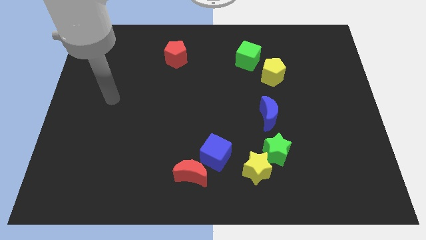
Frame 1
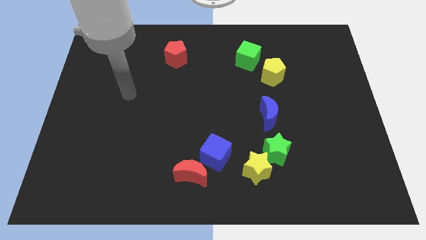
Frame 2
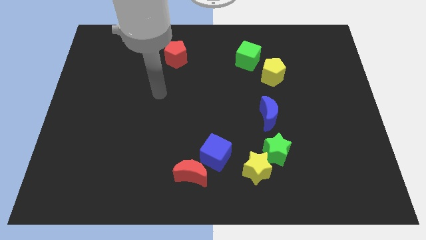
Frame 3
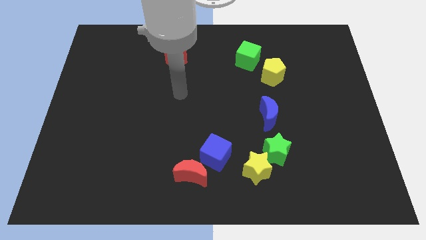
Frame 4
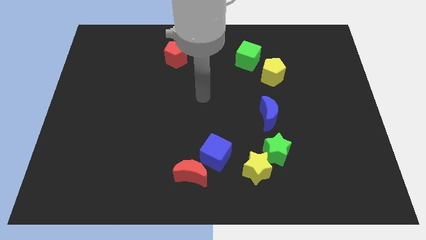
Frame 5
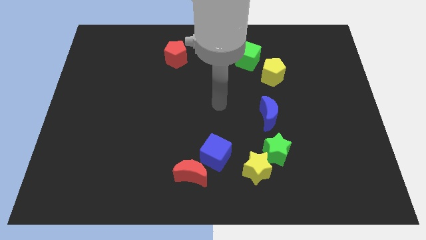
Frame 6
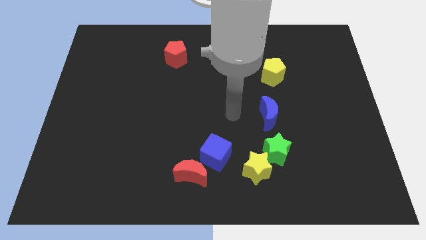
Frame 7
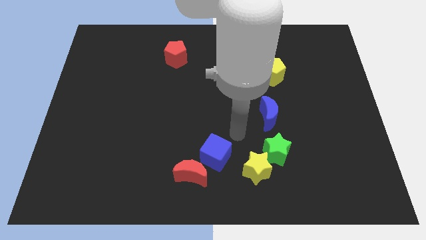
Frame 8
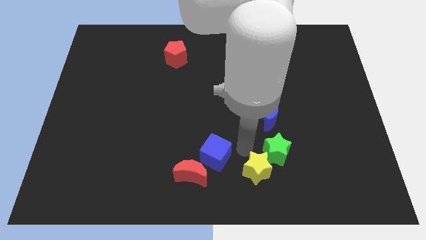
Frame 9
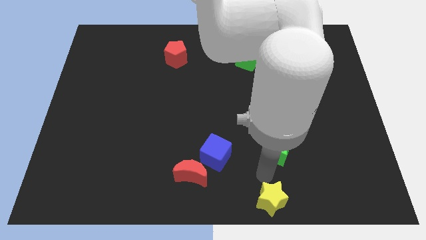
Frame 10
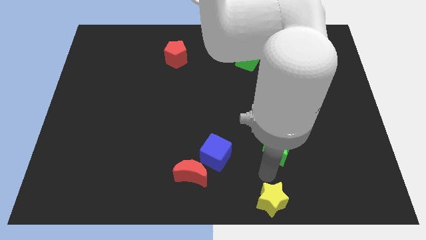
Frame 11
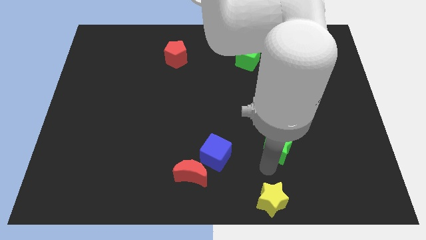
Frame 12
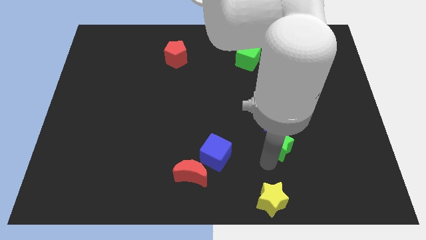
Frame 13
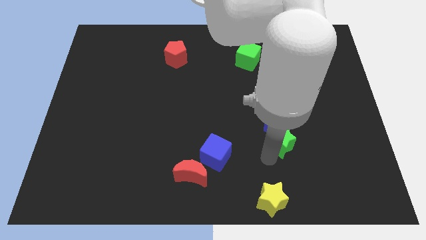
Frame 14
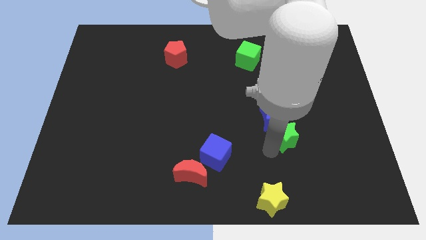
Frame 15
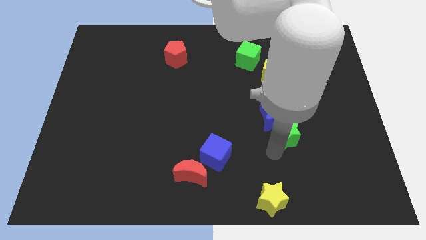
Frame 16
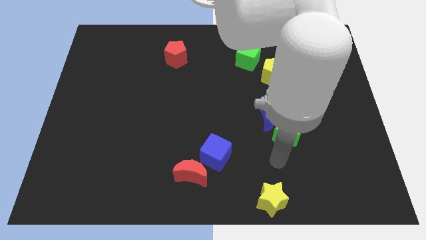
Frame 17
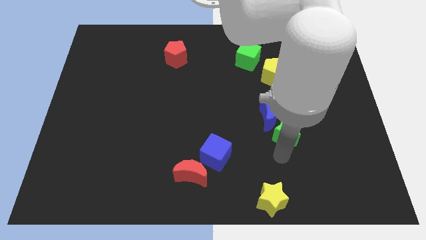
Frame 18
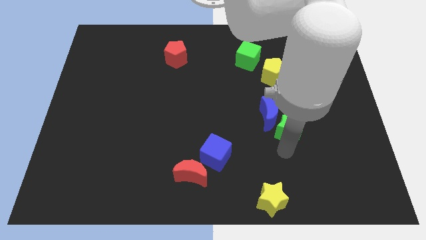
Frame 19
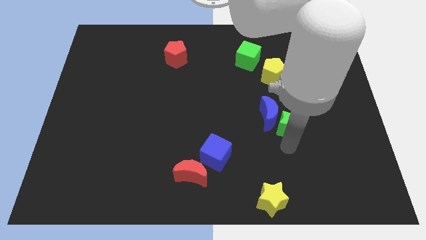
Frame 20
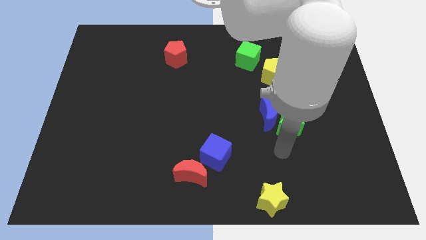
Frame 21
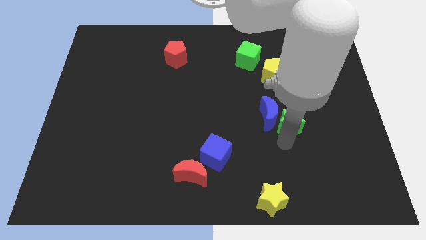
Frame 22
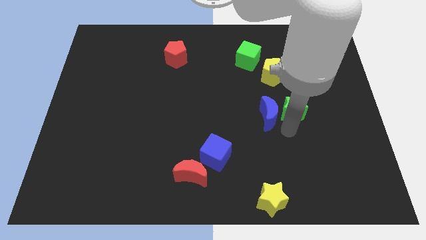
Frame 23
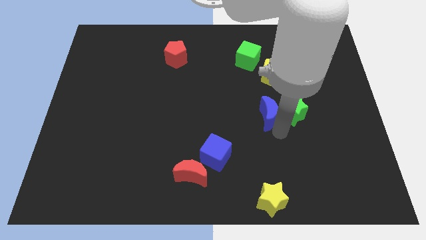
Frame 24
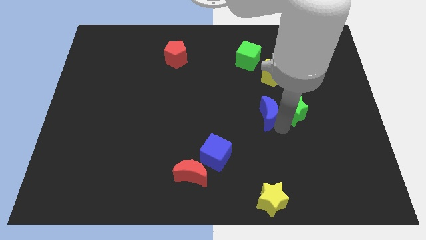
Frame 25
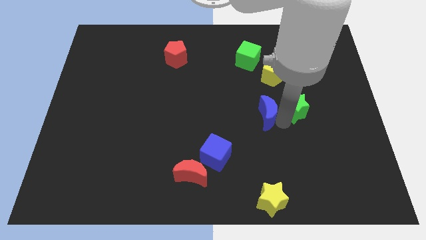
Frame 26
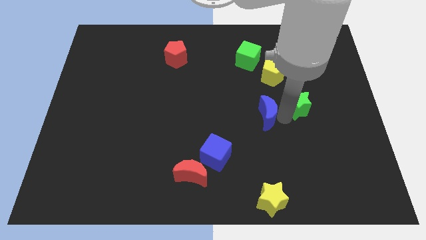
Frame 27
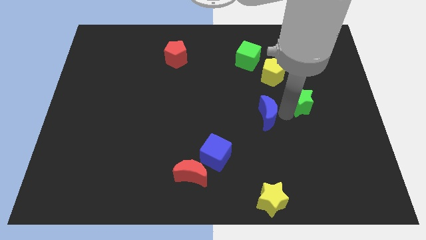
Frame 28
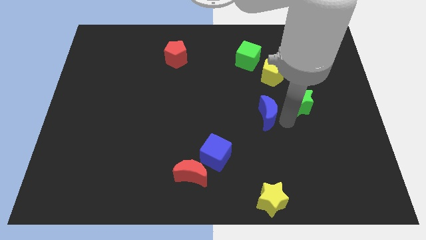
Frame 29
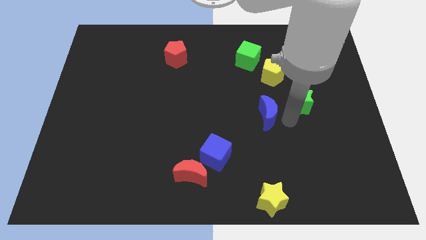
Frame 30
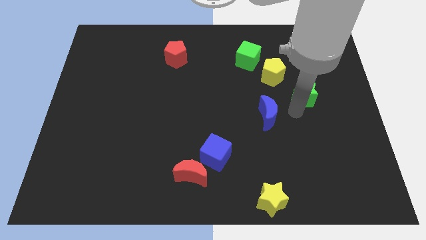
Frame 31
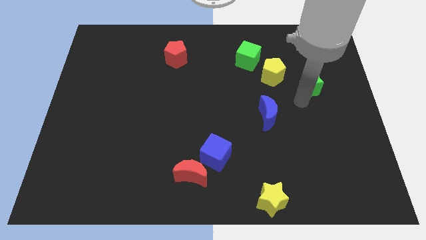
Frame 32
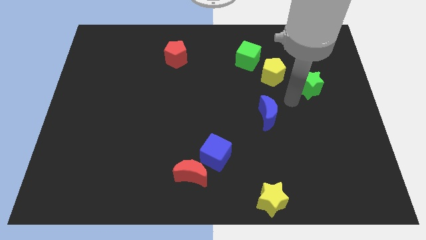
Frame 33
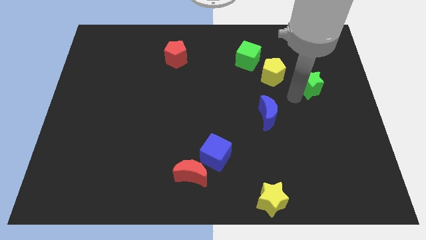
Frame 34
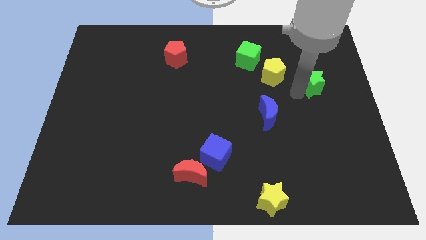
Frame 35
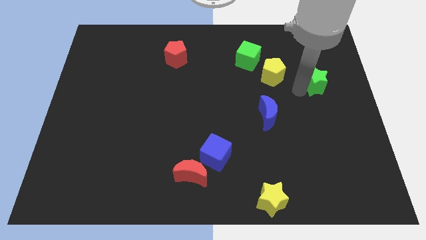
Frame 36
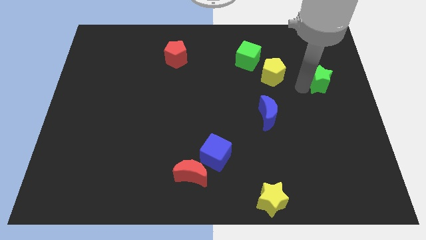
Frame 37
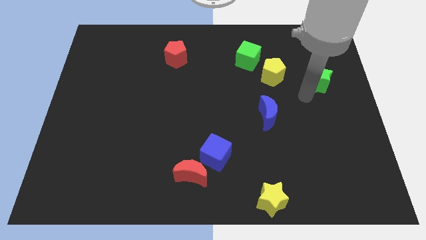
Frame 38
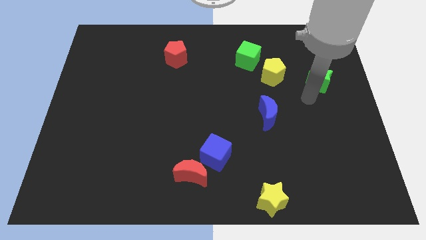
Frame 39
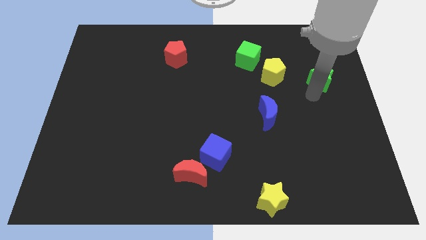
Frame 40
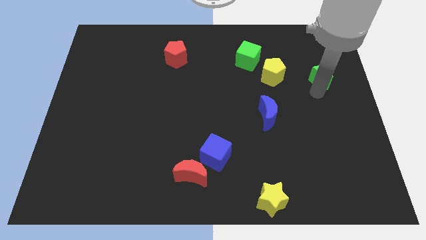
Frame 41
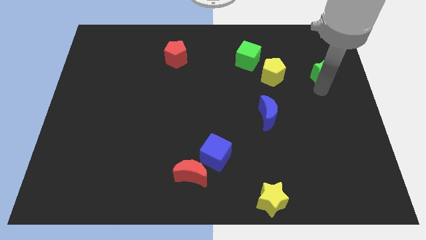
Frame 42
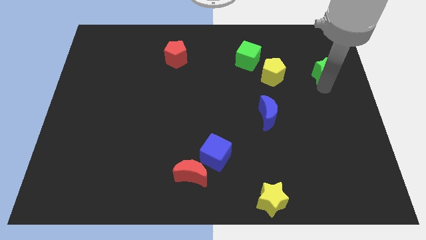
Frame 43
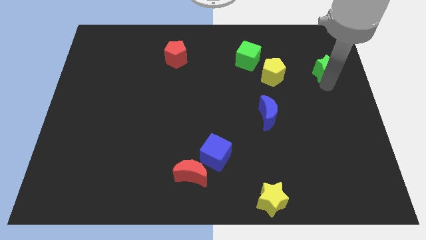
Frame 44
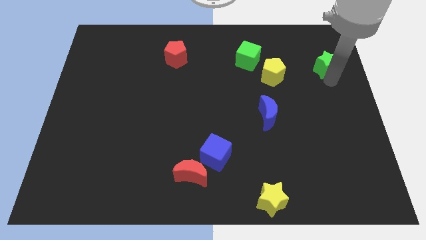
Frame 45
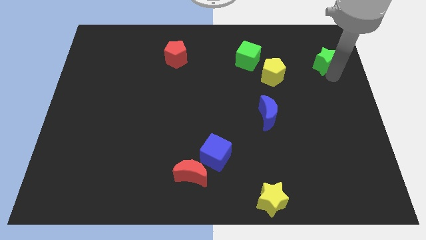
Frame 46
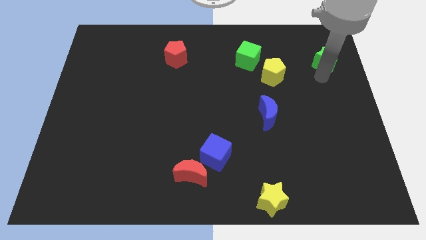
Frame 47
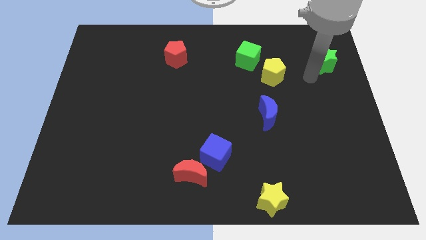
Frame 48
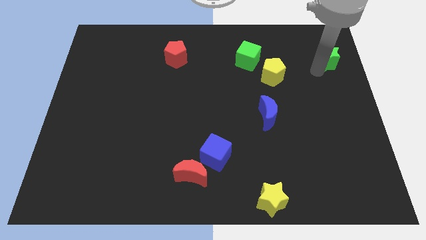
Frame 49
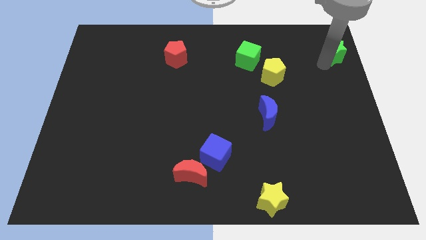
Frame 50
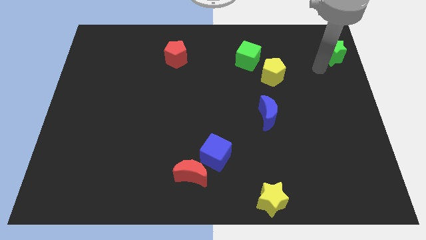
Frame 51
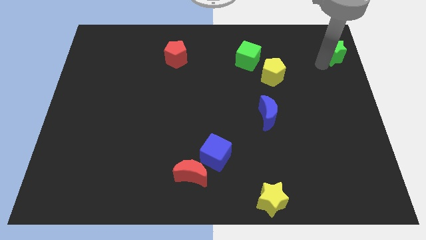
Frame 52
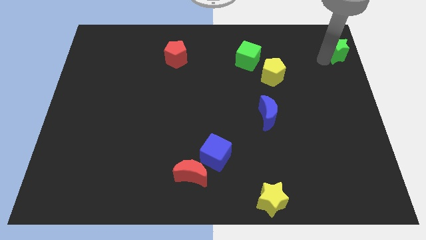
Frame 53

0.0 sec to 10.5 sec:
put the green star to the upper right corner

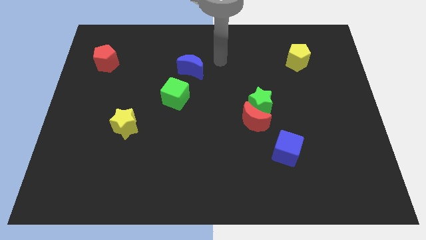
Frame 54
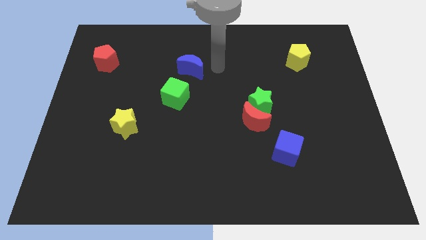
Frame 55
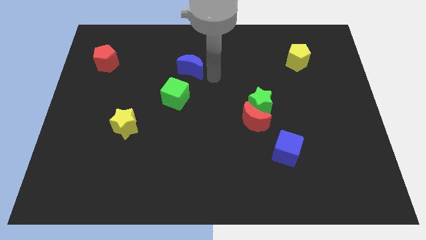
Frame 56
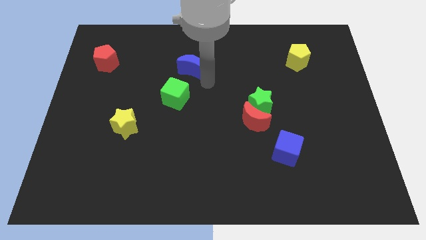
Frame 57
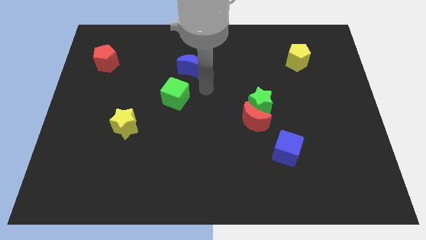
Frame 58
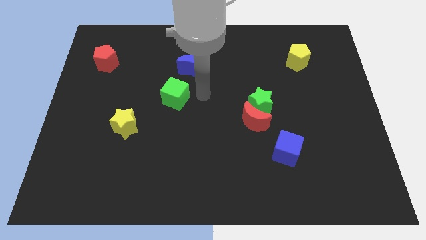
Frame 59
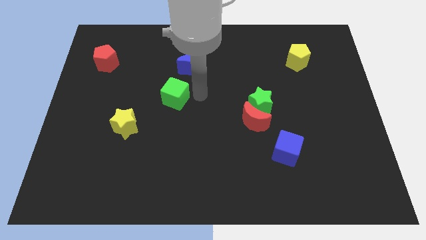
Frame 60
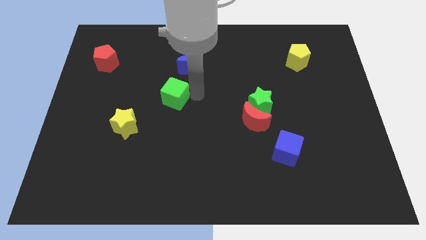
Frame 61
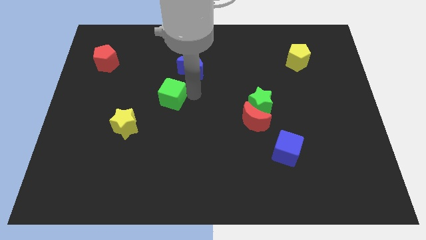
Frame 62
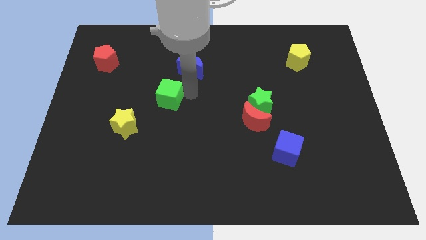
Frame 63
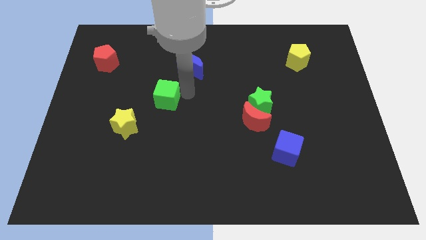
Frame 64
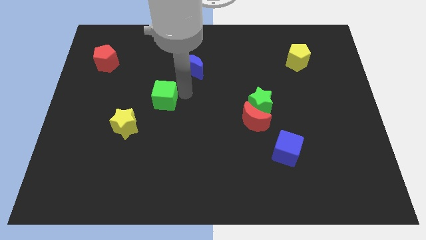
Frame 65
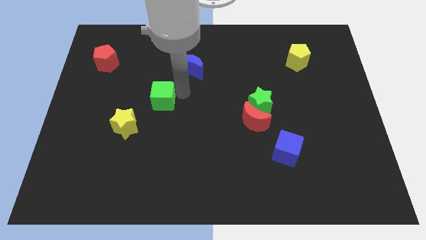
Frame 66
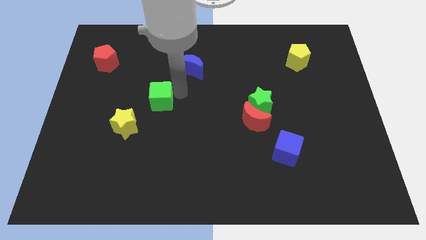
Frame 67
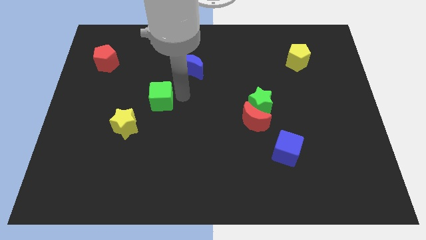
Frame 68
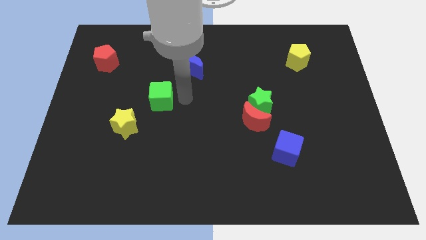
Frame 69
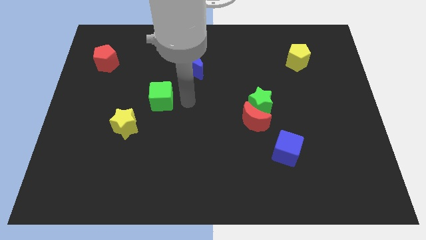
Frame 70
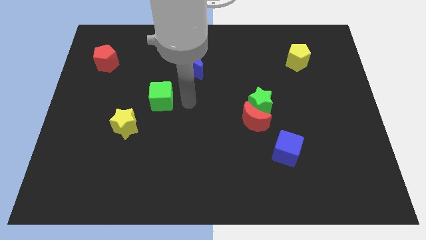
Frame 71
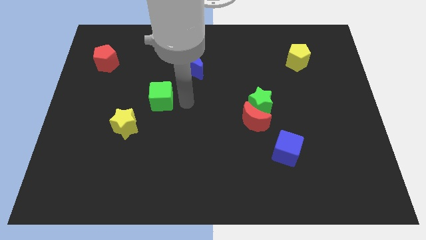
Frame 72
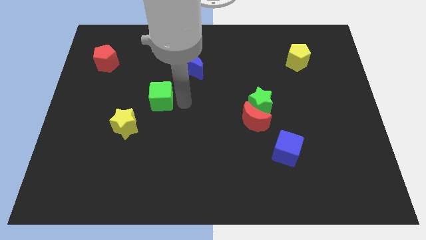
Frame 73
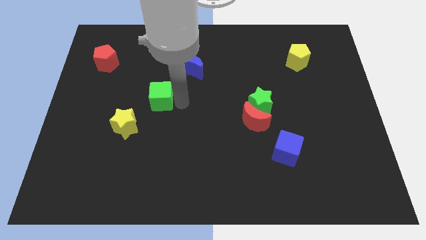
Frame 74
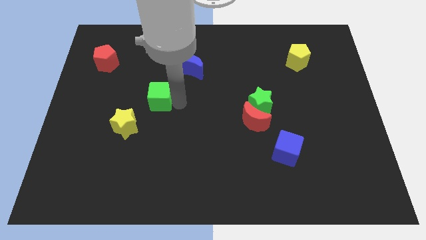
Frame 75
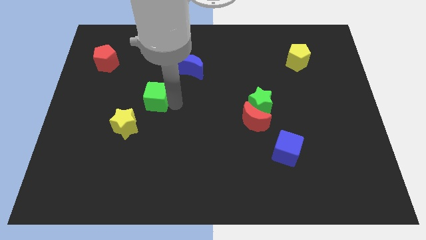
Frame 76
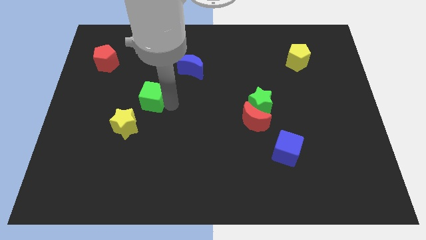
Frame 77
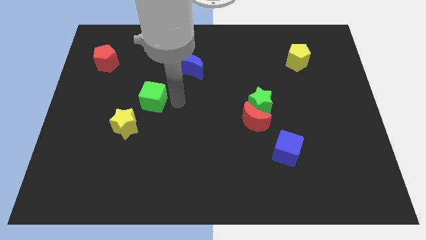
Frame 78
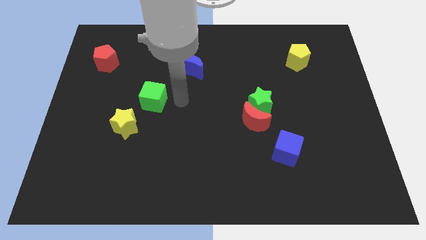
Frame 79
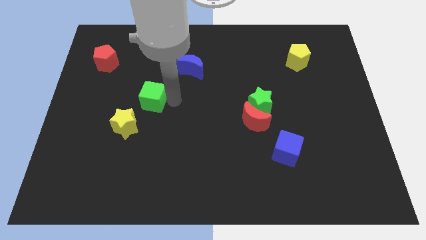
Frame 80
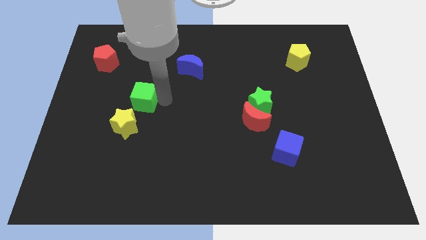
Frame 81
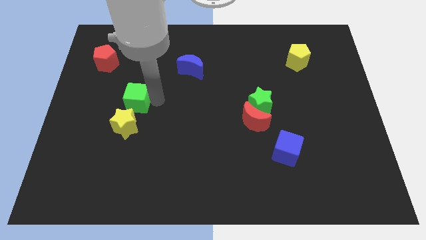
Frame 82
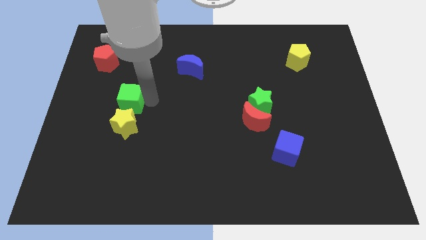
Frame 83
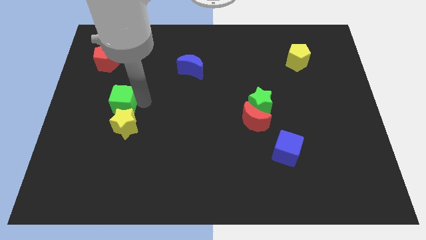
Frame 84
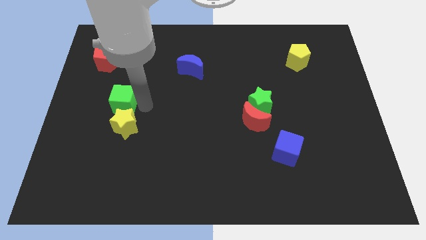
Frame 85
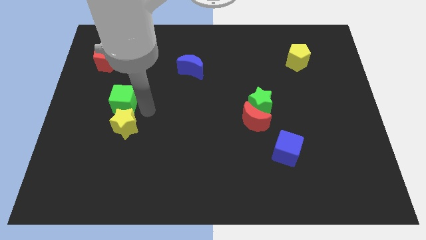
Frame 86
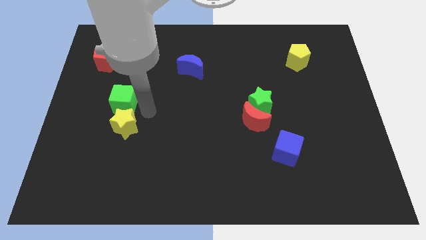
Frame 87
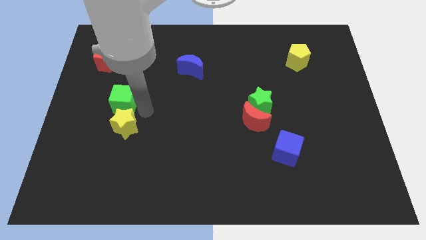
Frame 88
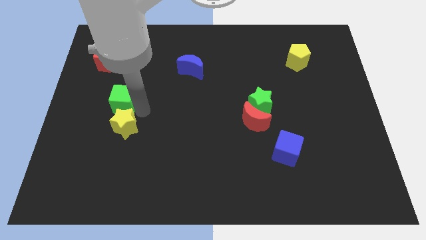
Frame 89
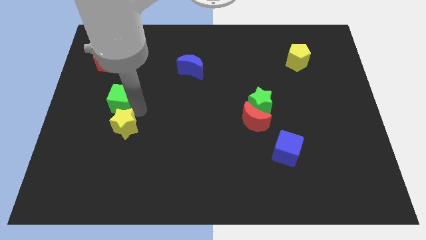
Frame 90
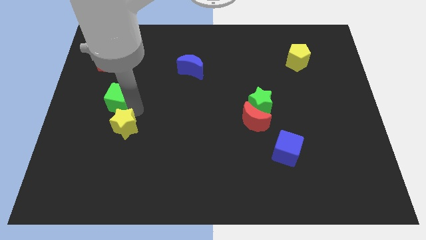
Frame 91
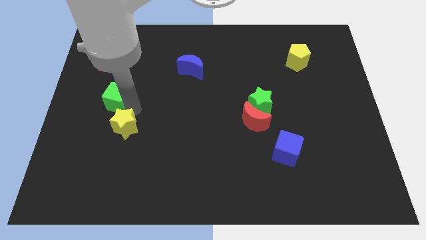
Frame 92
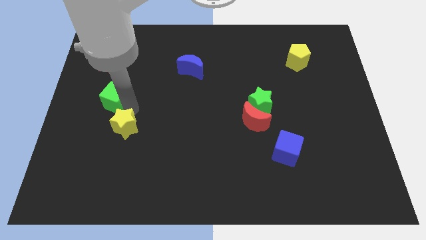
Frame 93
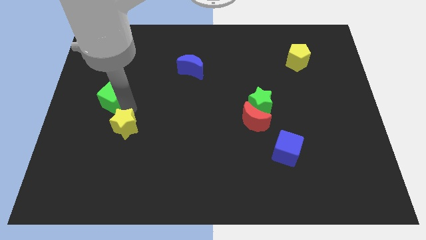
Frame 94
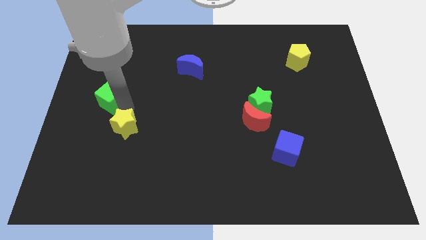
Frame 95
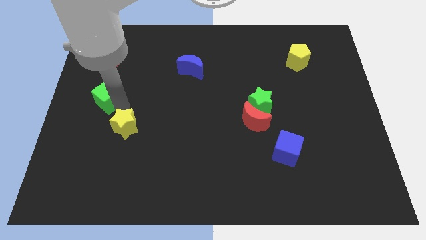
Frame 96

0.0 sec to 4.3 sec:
push the green cube to the left side
